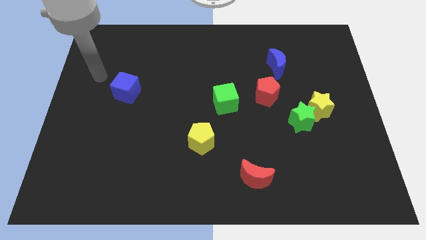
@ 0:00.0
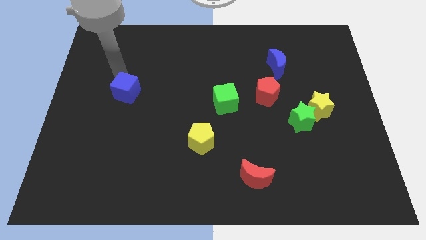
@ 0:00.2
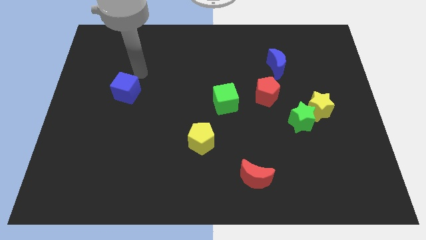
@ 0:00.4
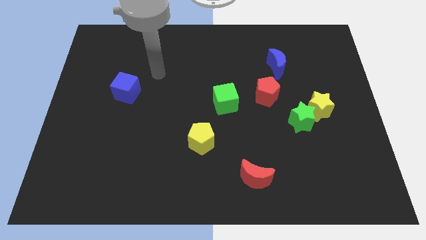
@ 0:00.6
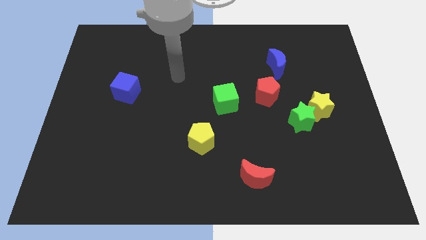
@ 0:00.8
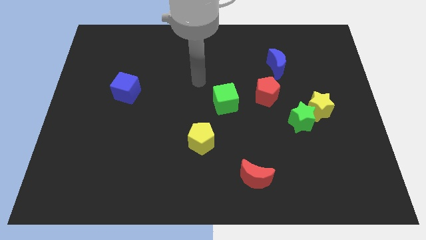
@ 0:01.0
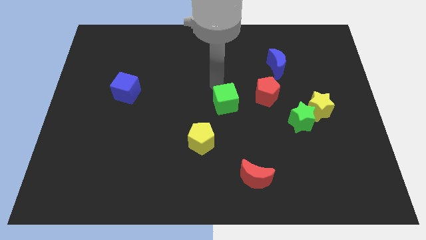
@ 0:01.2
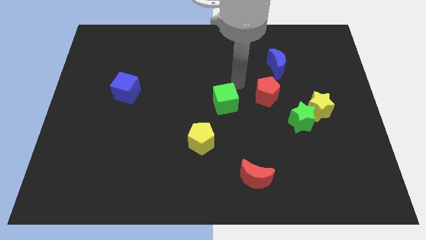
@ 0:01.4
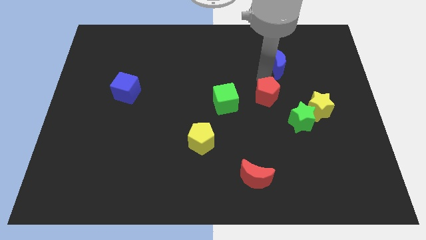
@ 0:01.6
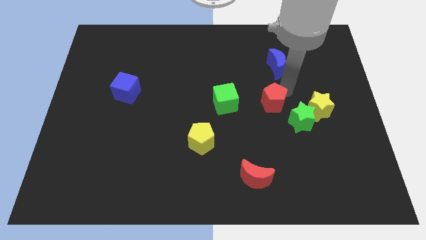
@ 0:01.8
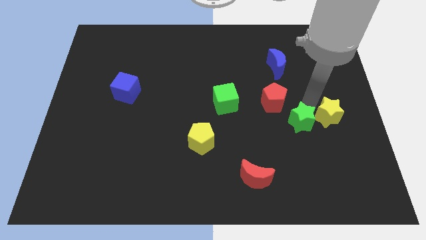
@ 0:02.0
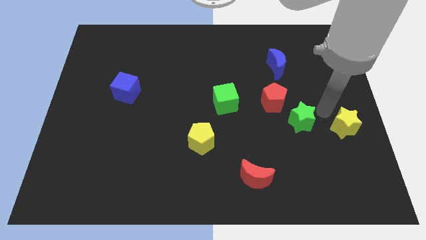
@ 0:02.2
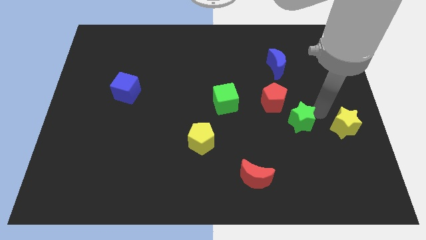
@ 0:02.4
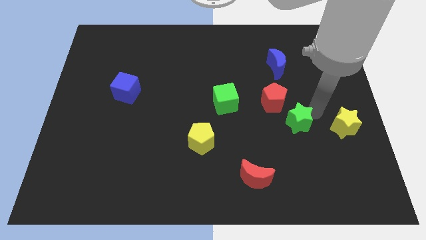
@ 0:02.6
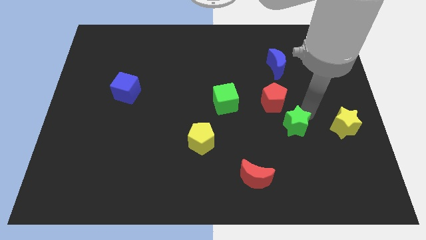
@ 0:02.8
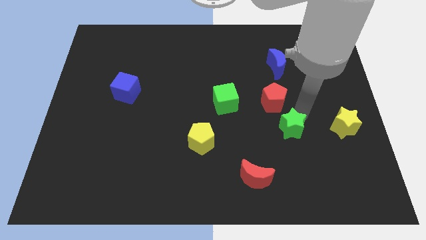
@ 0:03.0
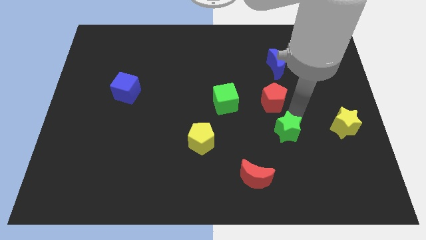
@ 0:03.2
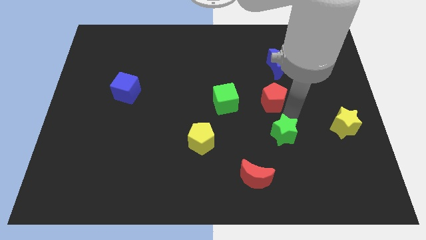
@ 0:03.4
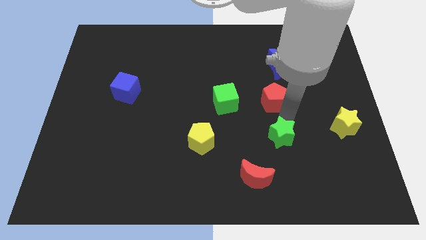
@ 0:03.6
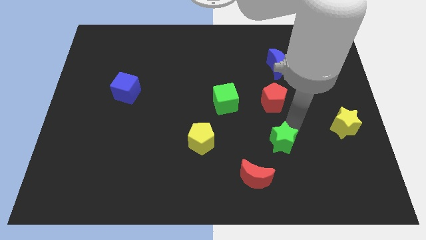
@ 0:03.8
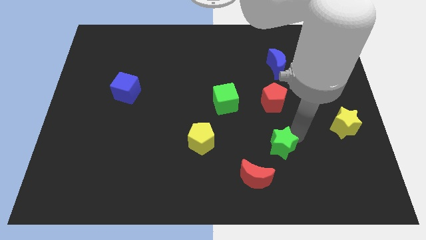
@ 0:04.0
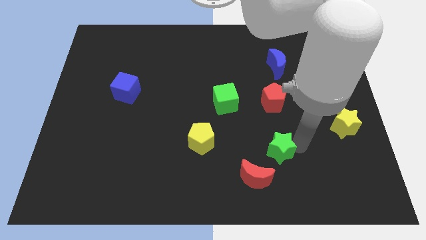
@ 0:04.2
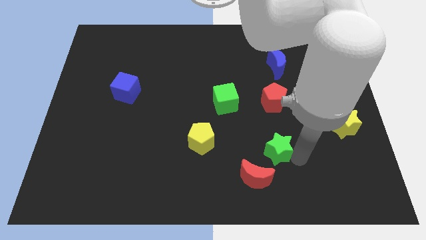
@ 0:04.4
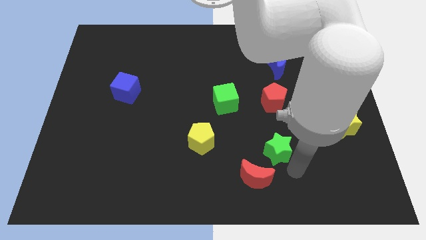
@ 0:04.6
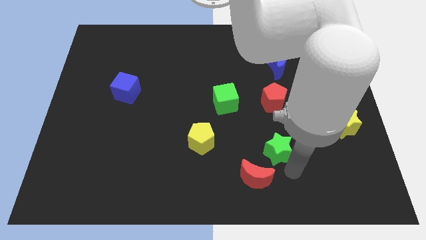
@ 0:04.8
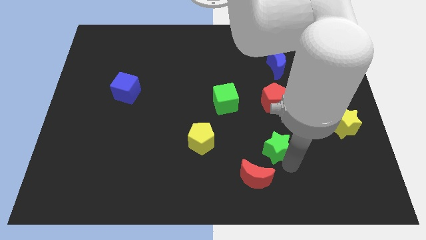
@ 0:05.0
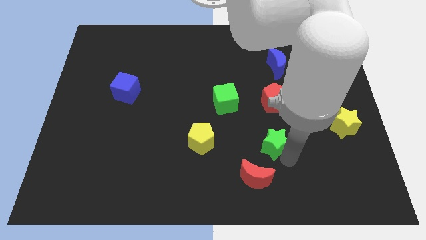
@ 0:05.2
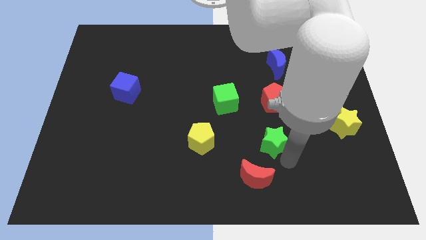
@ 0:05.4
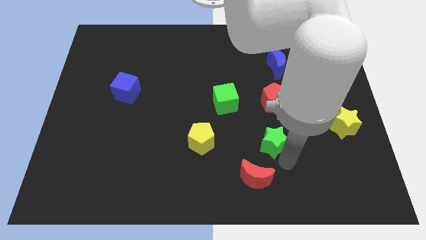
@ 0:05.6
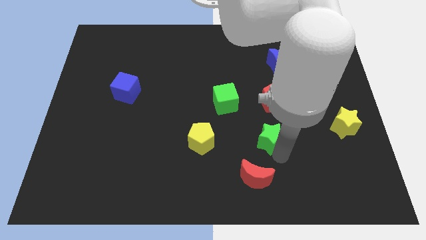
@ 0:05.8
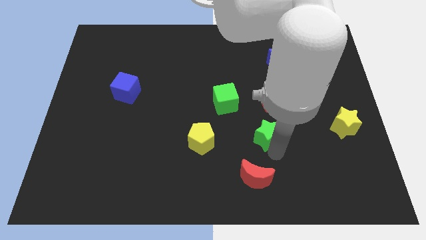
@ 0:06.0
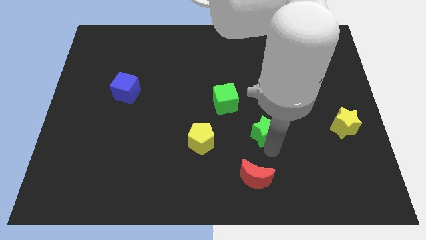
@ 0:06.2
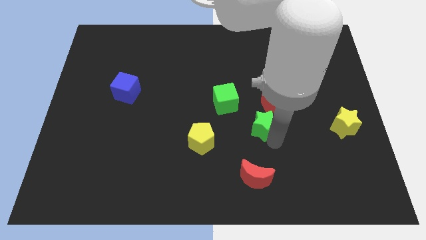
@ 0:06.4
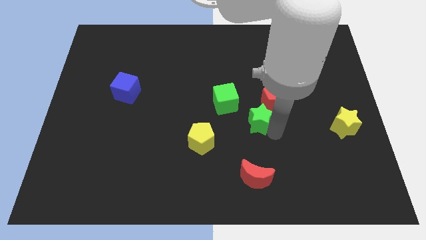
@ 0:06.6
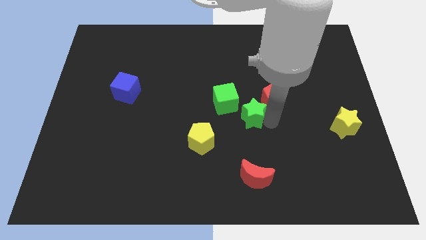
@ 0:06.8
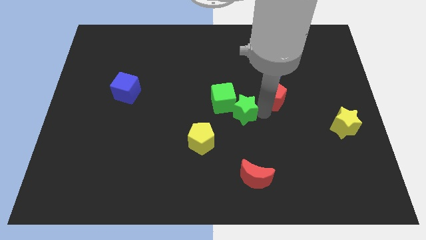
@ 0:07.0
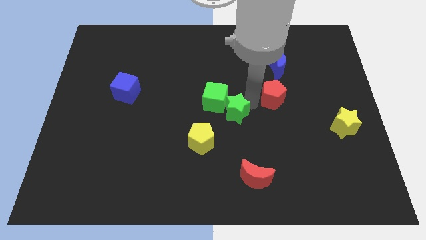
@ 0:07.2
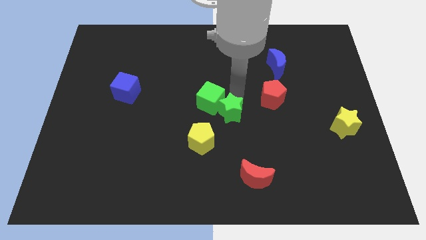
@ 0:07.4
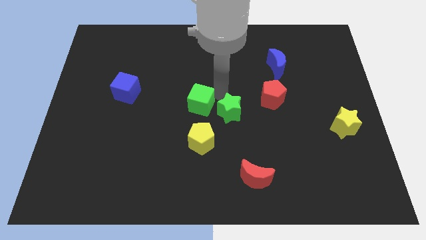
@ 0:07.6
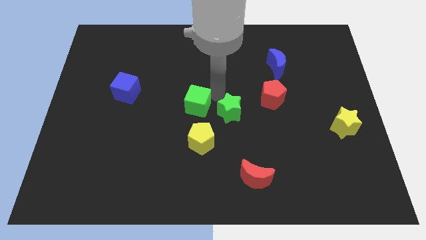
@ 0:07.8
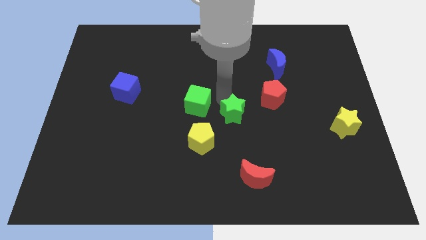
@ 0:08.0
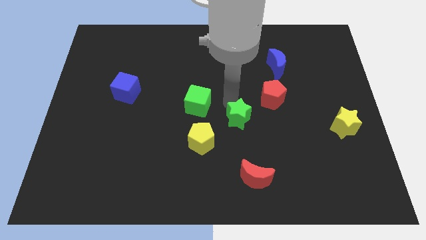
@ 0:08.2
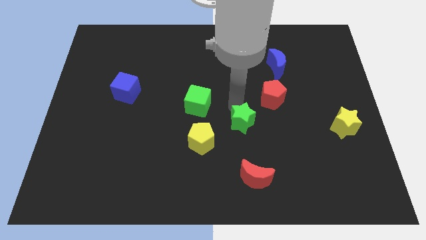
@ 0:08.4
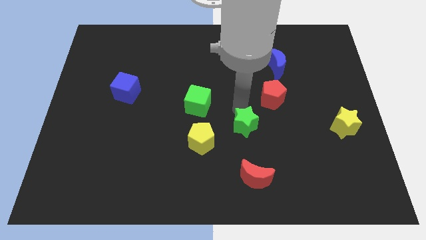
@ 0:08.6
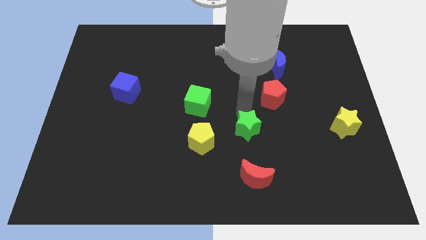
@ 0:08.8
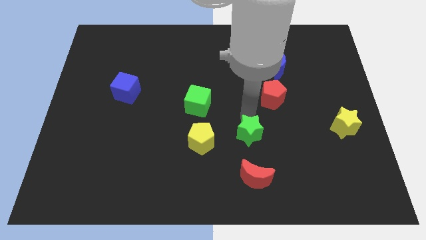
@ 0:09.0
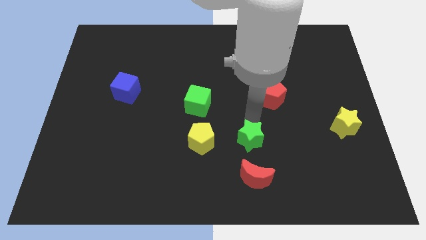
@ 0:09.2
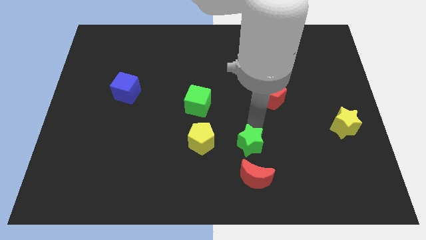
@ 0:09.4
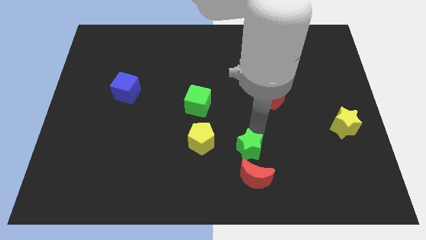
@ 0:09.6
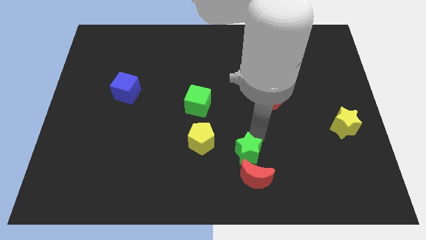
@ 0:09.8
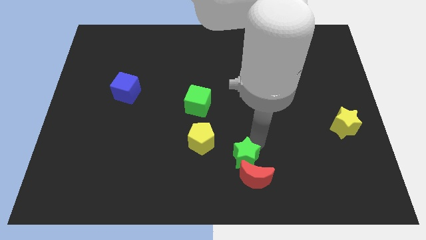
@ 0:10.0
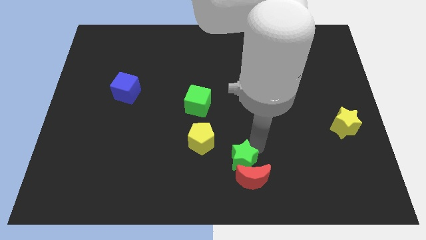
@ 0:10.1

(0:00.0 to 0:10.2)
put the green star to the bottom side
